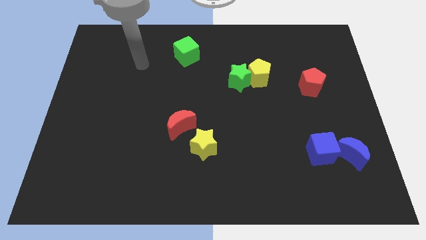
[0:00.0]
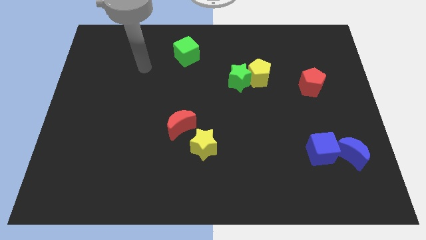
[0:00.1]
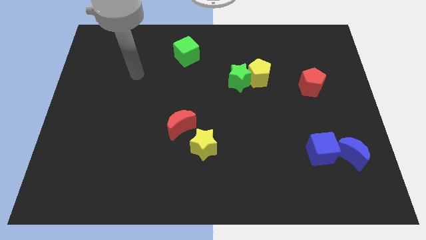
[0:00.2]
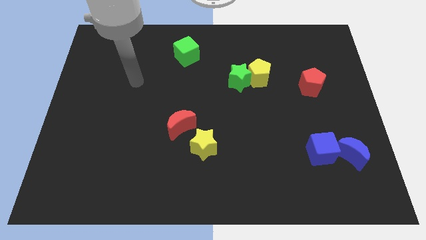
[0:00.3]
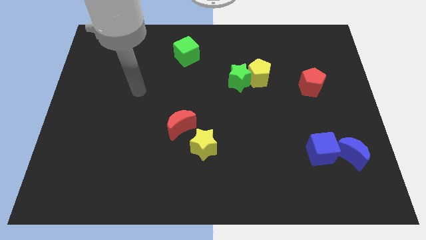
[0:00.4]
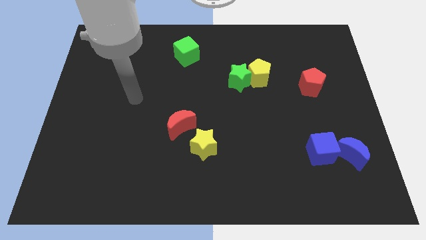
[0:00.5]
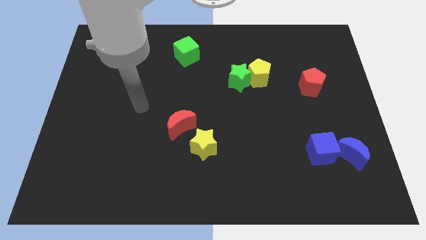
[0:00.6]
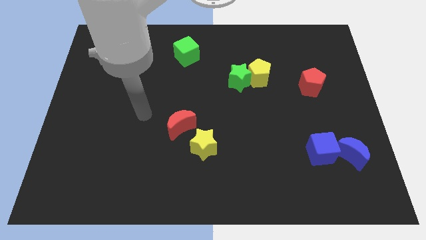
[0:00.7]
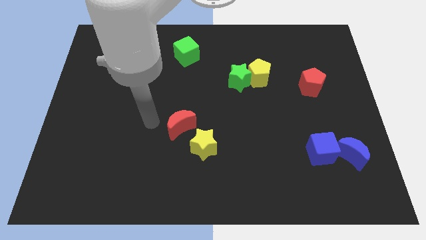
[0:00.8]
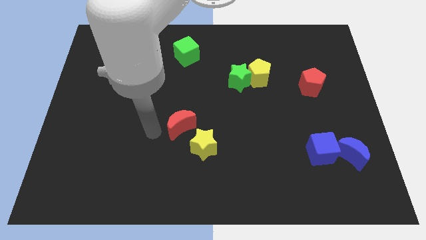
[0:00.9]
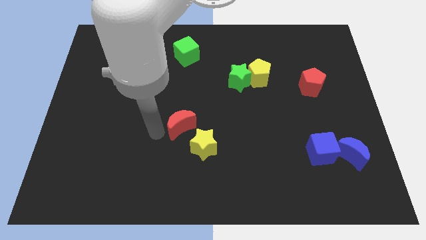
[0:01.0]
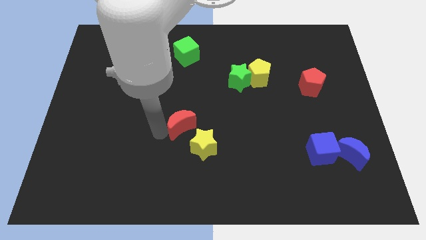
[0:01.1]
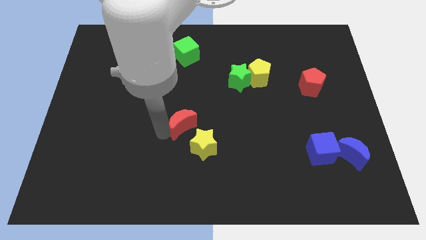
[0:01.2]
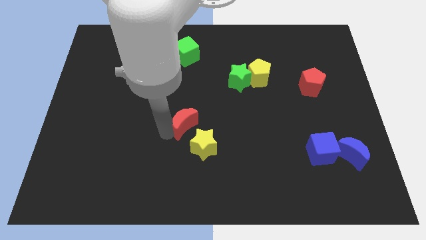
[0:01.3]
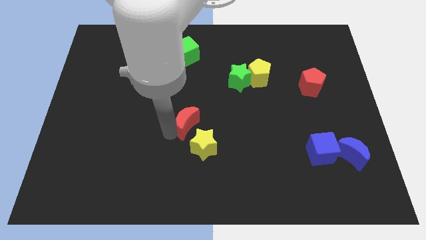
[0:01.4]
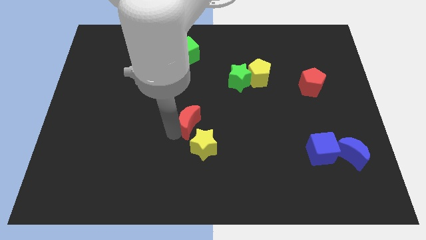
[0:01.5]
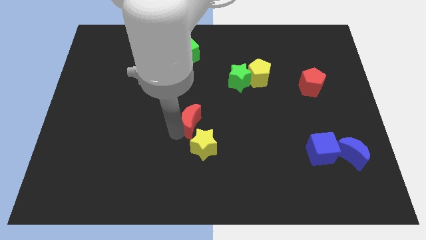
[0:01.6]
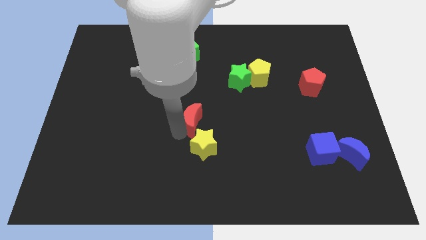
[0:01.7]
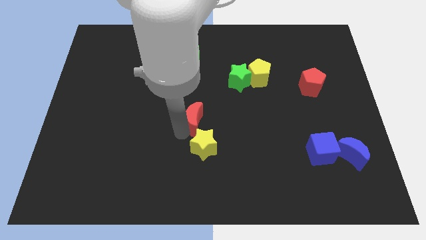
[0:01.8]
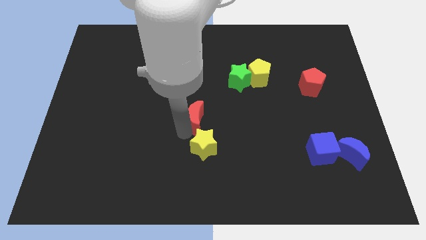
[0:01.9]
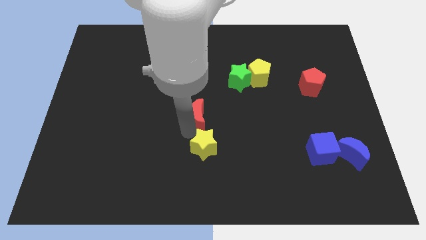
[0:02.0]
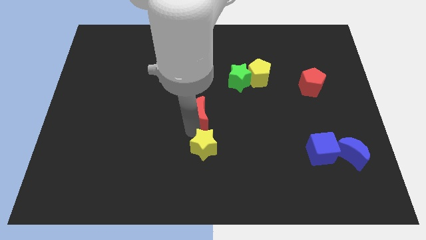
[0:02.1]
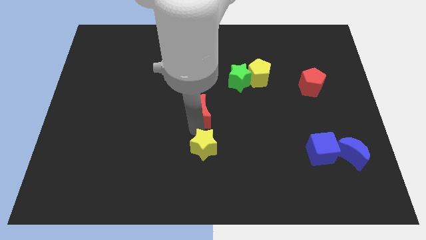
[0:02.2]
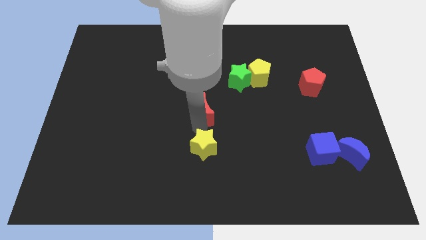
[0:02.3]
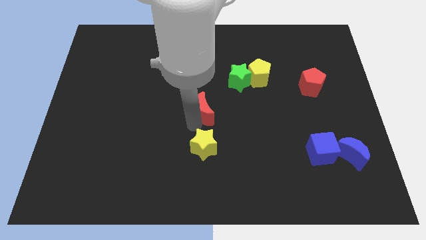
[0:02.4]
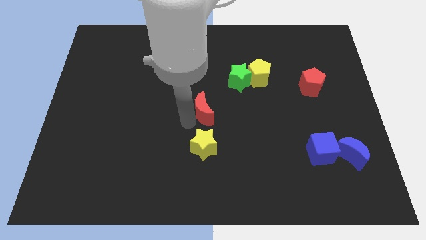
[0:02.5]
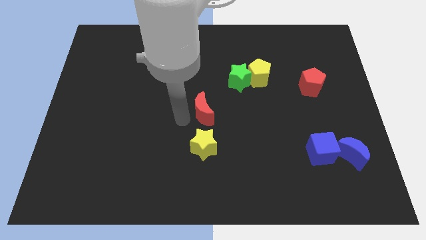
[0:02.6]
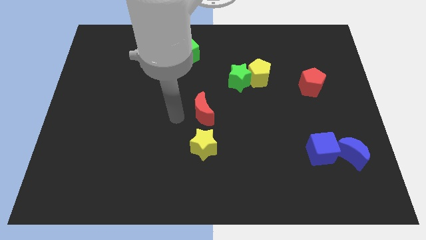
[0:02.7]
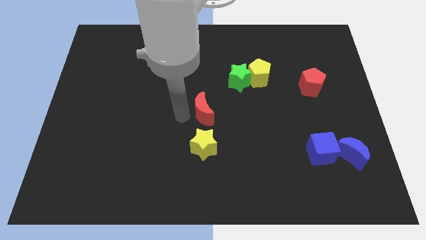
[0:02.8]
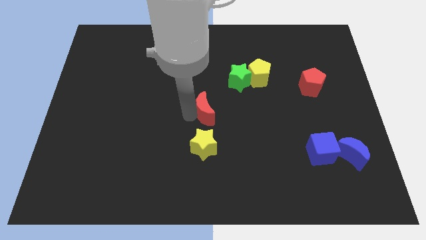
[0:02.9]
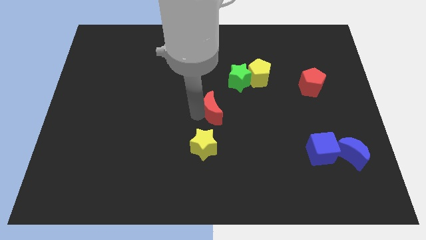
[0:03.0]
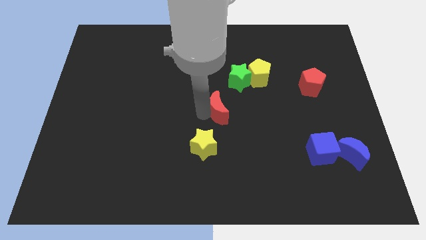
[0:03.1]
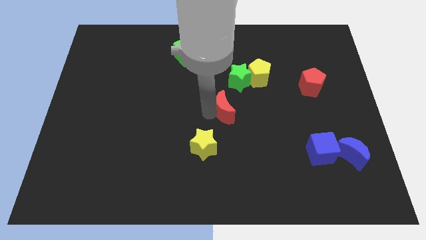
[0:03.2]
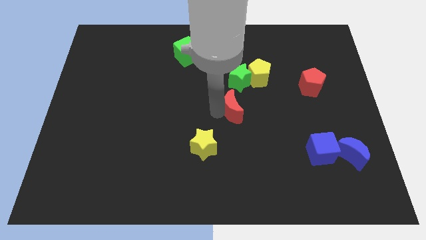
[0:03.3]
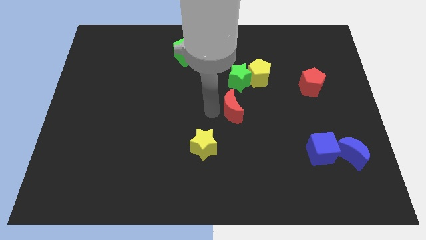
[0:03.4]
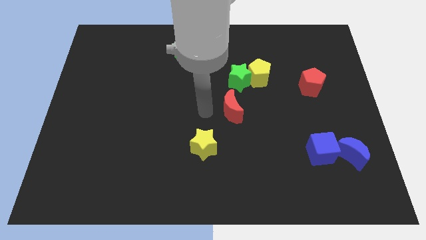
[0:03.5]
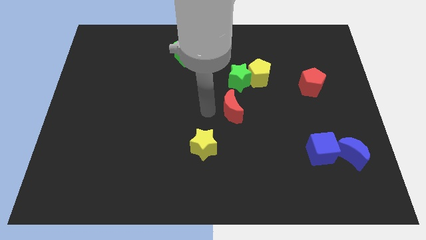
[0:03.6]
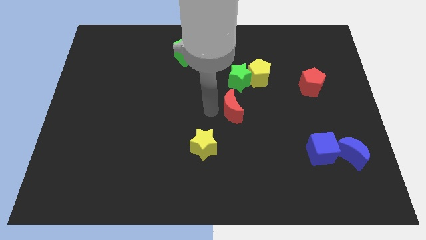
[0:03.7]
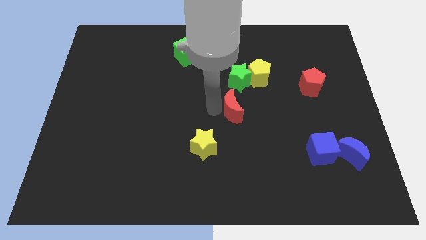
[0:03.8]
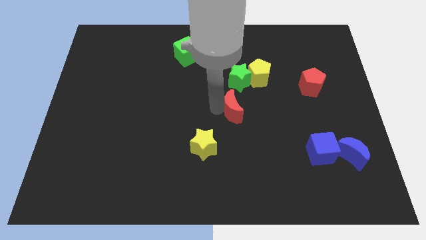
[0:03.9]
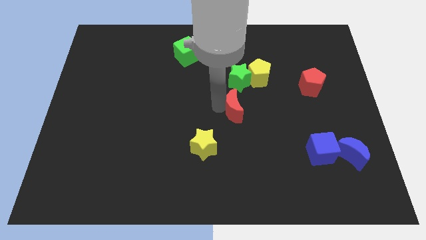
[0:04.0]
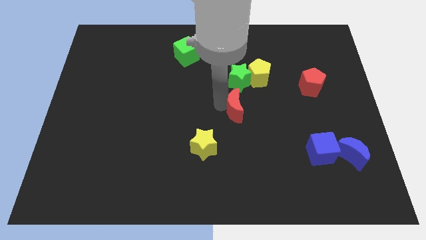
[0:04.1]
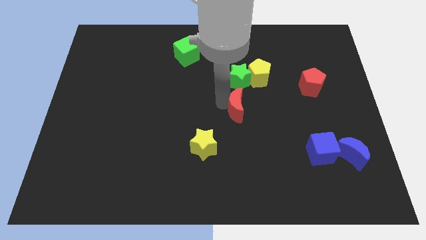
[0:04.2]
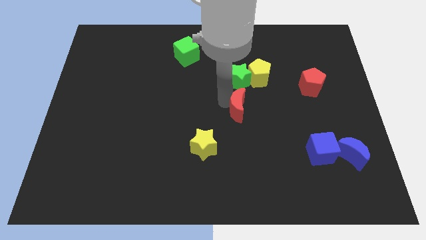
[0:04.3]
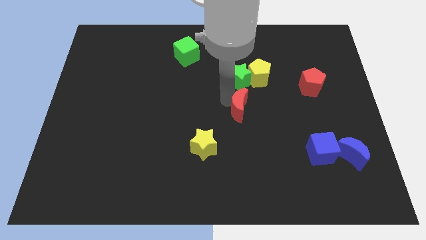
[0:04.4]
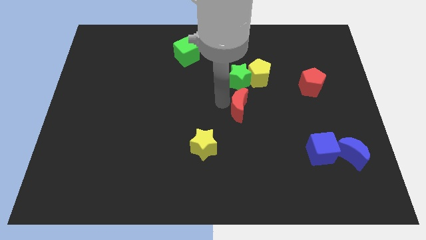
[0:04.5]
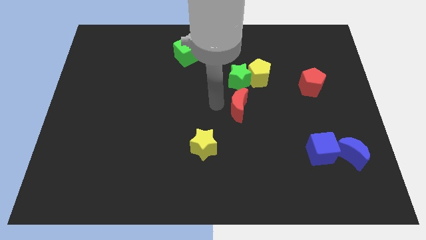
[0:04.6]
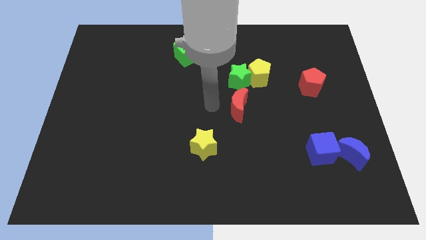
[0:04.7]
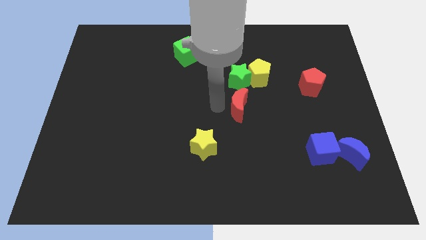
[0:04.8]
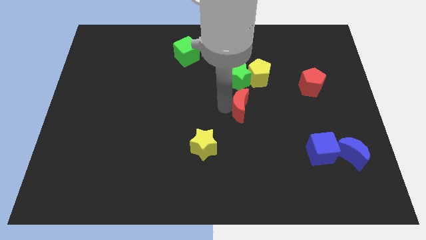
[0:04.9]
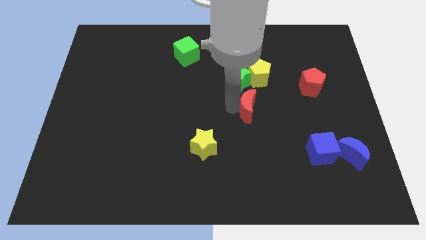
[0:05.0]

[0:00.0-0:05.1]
push the red moon to the bottom side of the yellow pentagon

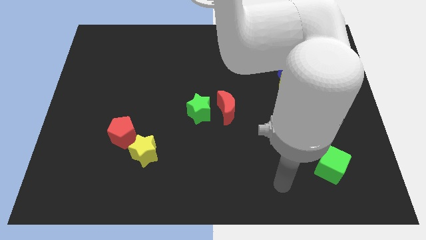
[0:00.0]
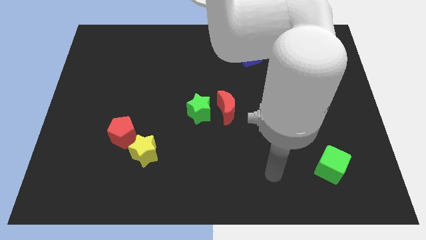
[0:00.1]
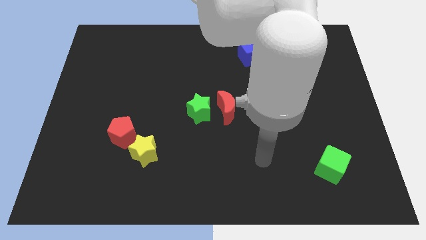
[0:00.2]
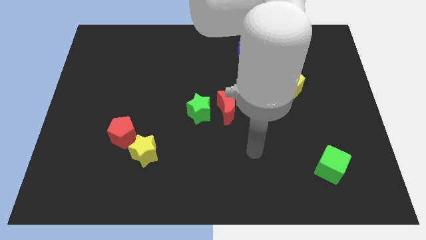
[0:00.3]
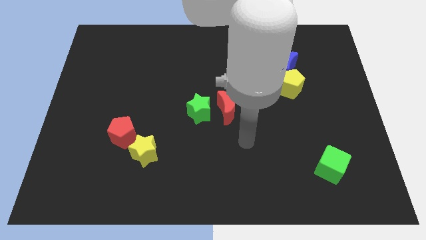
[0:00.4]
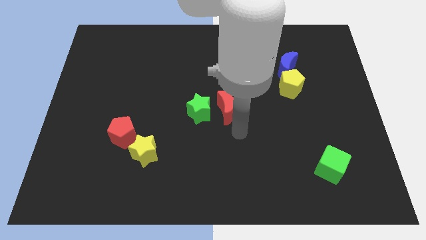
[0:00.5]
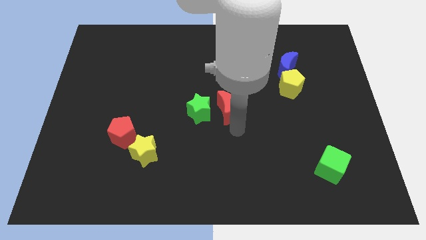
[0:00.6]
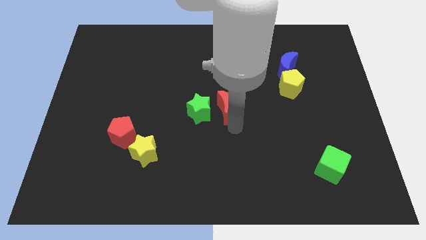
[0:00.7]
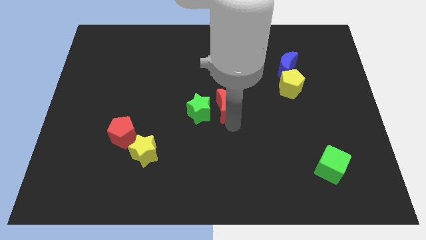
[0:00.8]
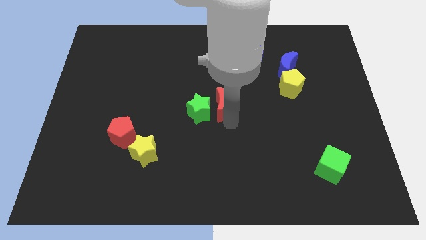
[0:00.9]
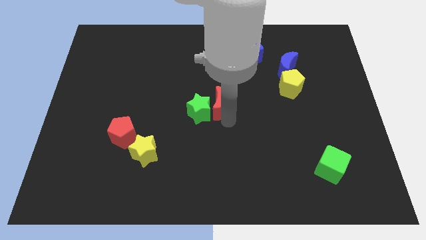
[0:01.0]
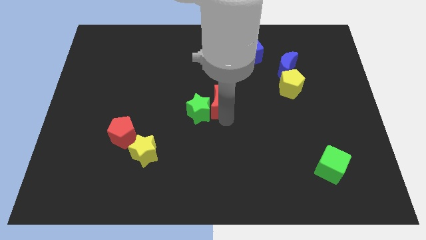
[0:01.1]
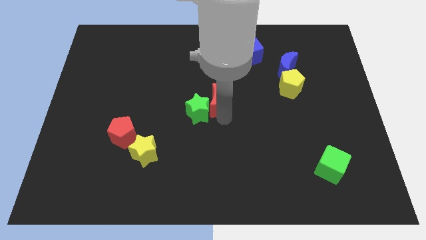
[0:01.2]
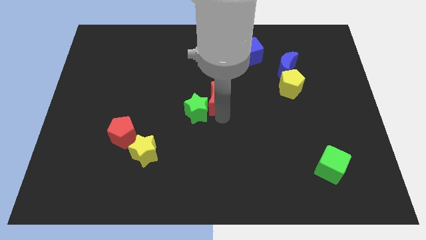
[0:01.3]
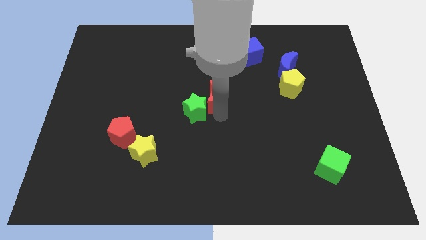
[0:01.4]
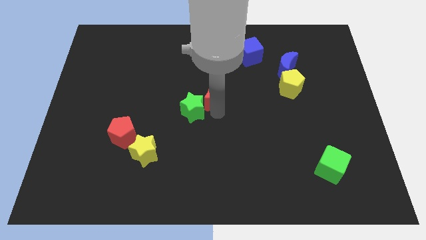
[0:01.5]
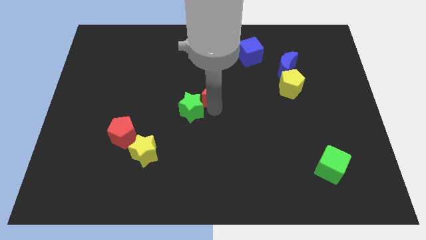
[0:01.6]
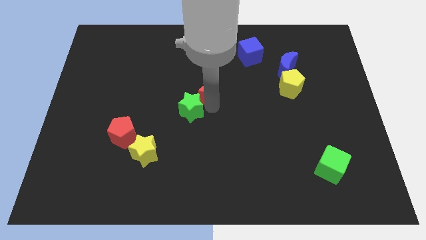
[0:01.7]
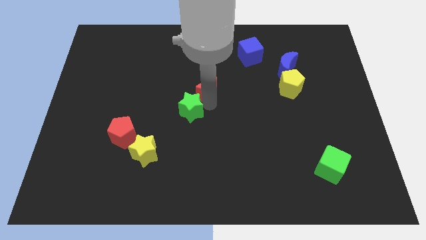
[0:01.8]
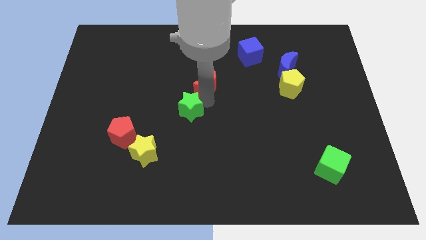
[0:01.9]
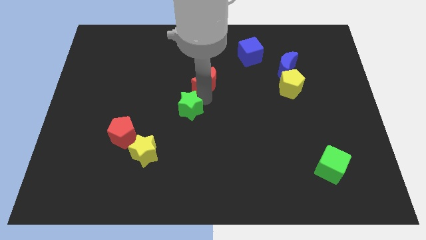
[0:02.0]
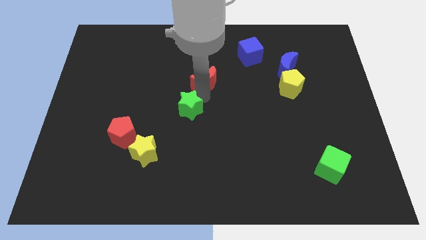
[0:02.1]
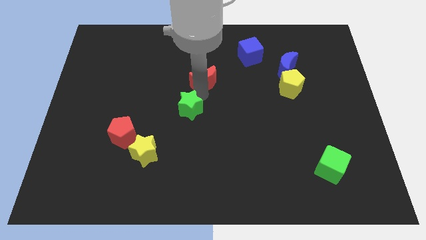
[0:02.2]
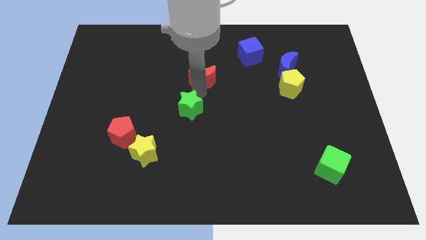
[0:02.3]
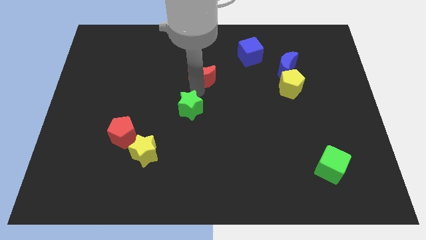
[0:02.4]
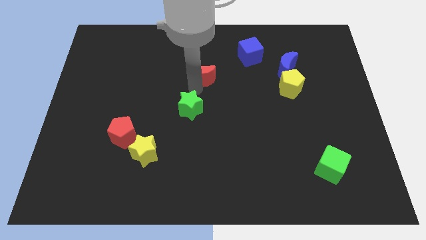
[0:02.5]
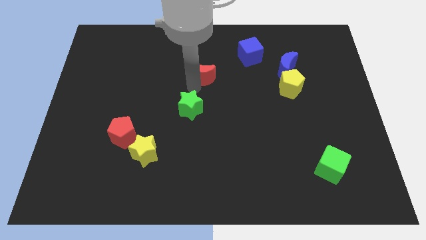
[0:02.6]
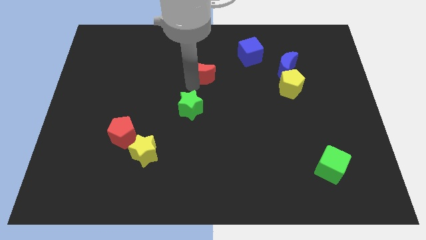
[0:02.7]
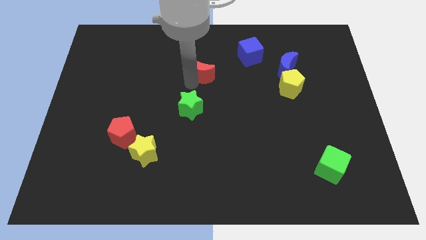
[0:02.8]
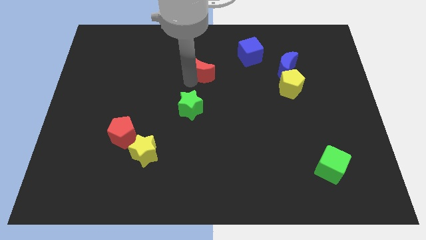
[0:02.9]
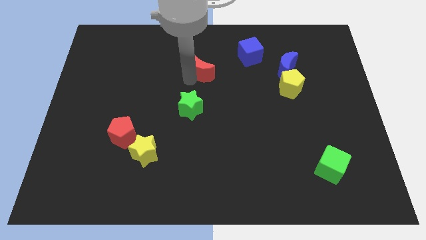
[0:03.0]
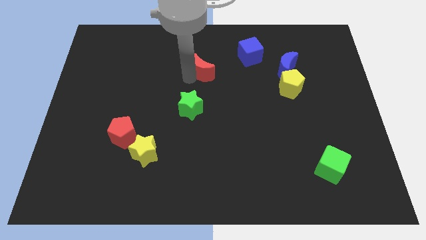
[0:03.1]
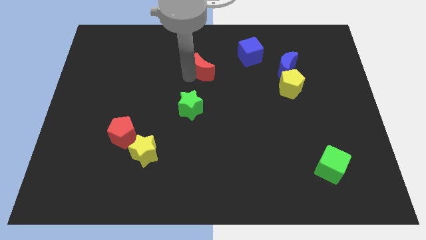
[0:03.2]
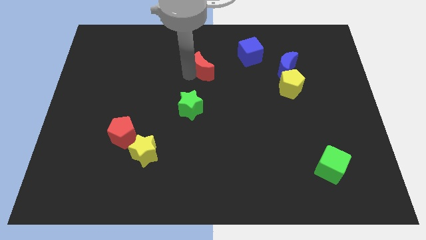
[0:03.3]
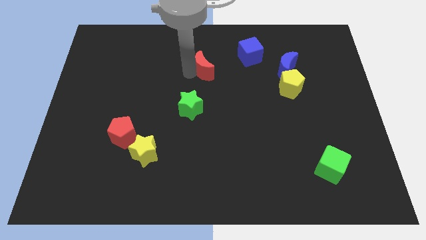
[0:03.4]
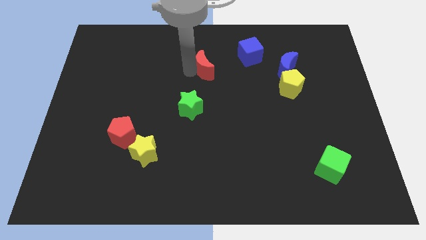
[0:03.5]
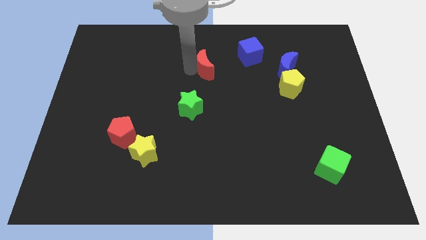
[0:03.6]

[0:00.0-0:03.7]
push the red moon to the left of the blue cube
